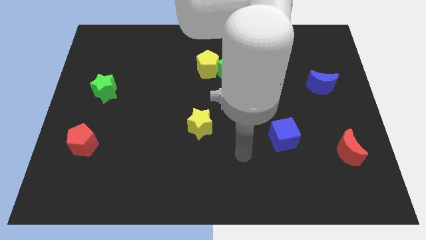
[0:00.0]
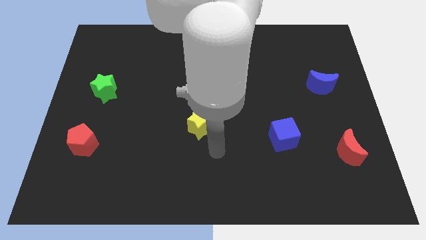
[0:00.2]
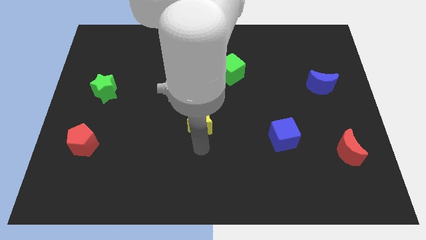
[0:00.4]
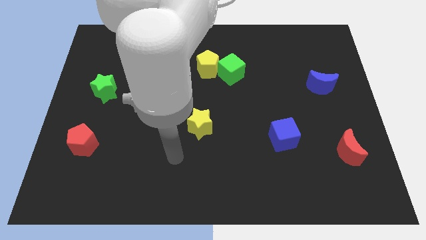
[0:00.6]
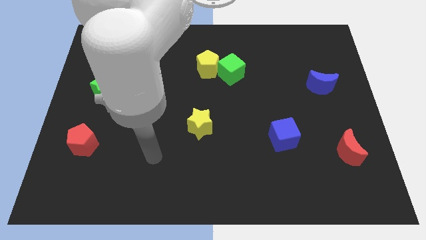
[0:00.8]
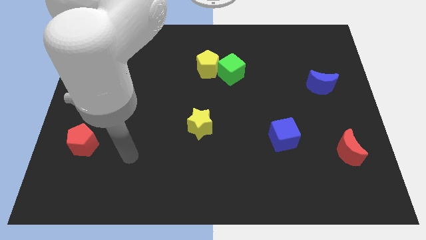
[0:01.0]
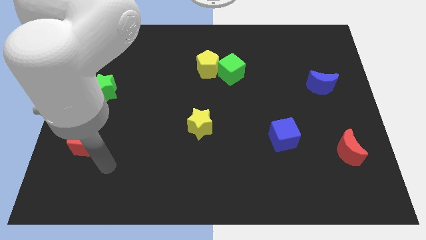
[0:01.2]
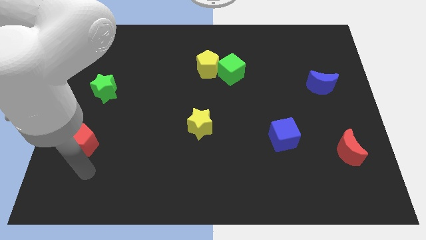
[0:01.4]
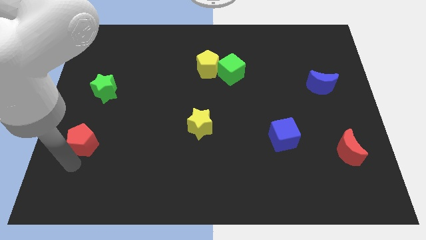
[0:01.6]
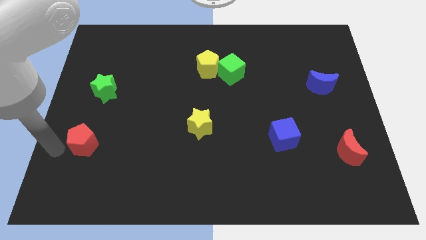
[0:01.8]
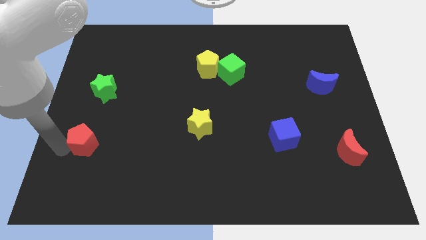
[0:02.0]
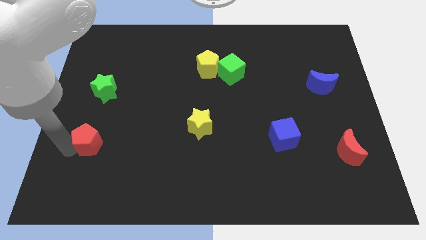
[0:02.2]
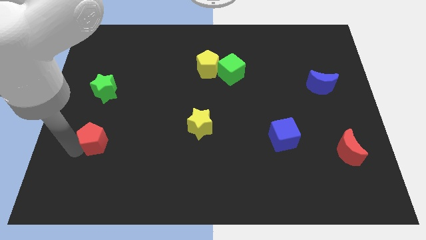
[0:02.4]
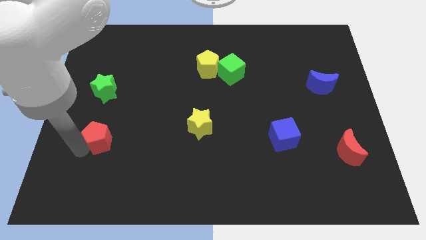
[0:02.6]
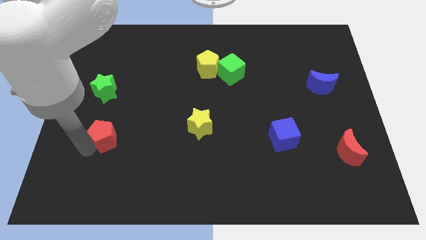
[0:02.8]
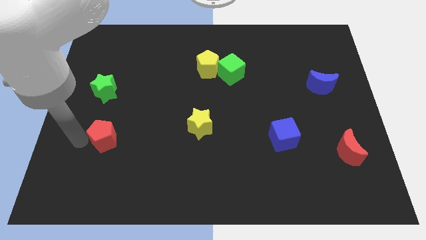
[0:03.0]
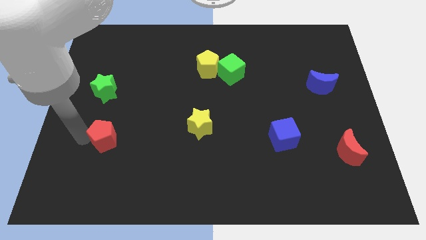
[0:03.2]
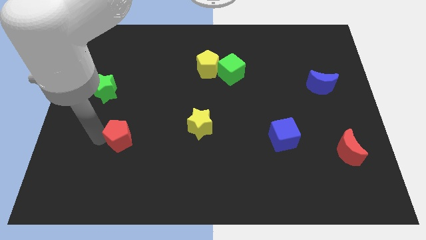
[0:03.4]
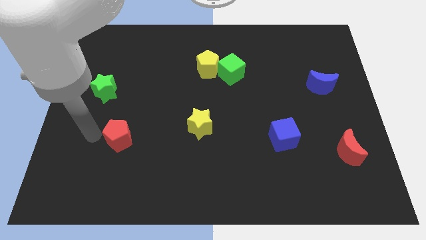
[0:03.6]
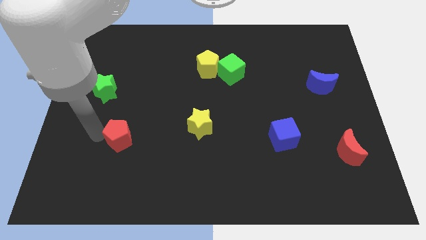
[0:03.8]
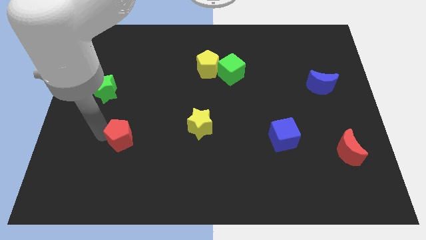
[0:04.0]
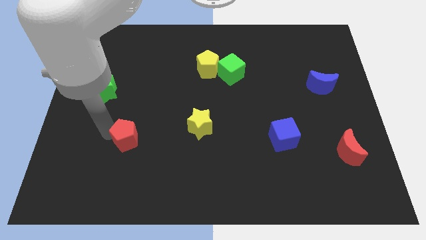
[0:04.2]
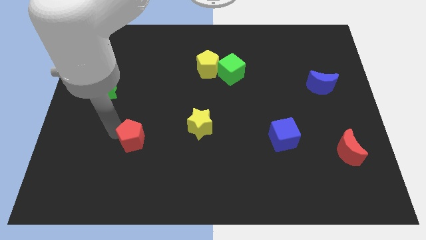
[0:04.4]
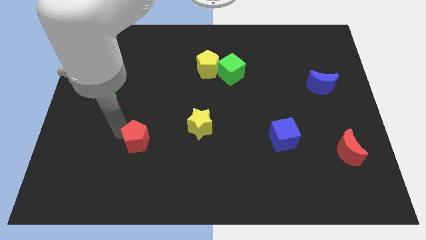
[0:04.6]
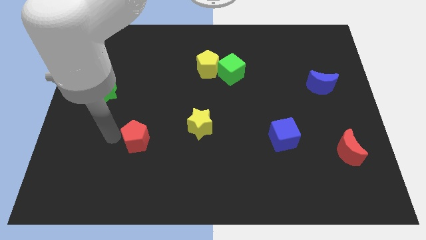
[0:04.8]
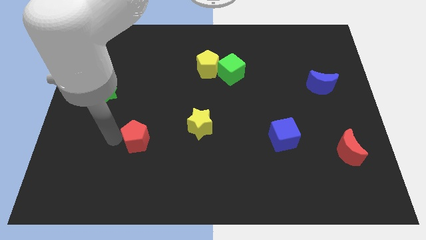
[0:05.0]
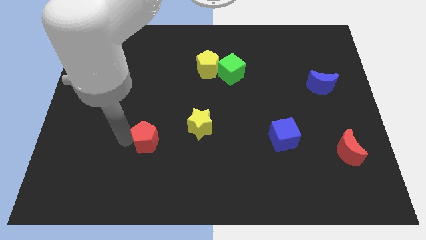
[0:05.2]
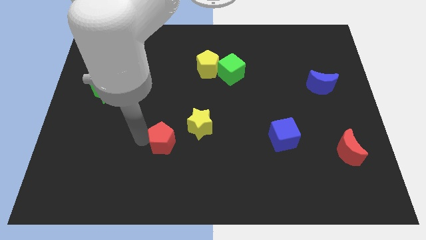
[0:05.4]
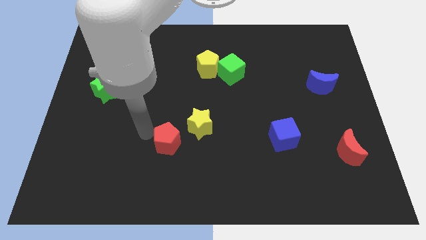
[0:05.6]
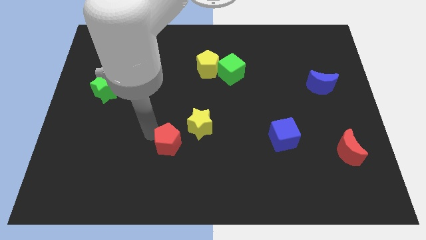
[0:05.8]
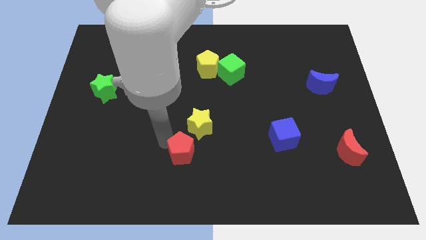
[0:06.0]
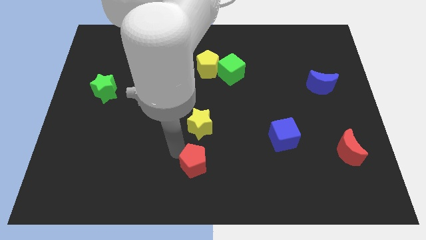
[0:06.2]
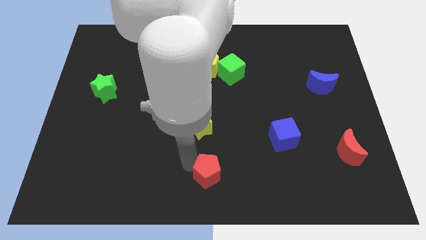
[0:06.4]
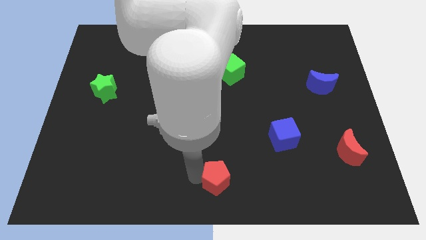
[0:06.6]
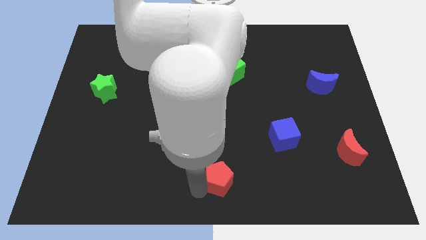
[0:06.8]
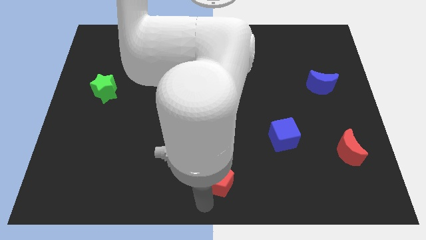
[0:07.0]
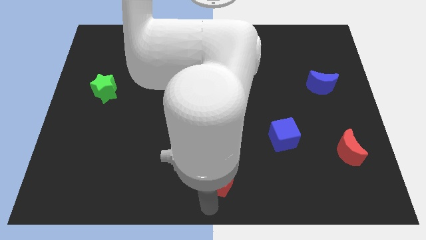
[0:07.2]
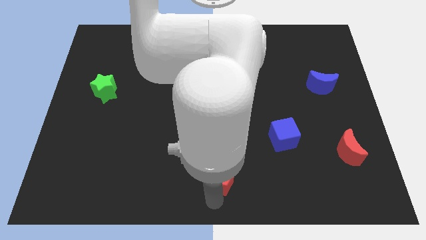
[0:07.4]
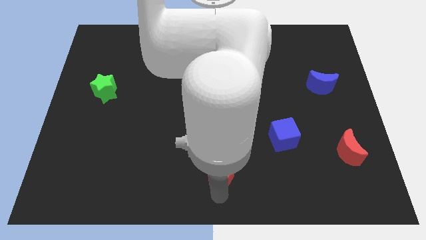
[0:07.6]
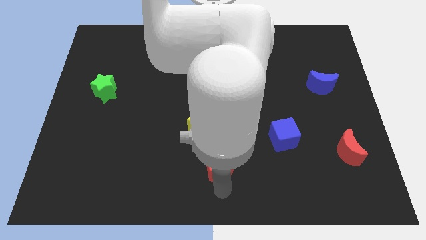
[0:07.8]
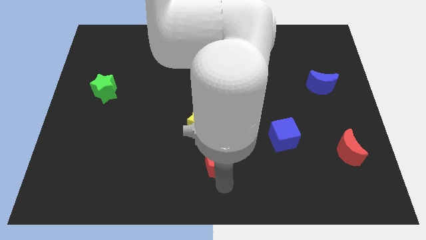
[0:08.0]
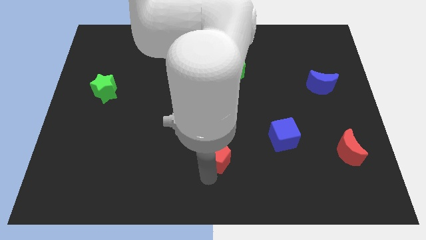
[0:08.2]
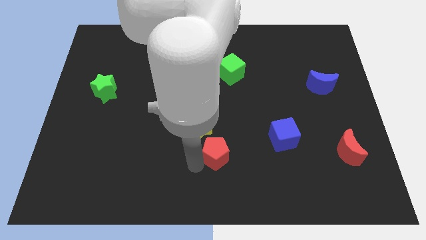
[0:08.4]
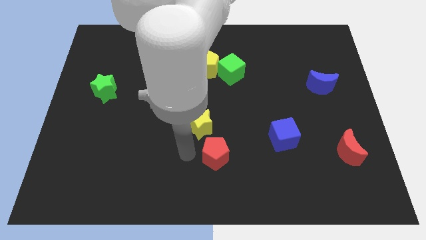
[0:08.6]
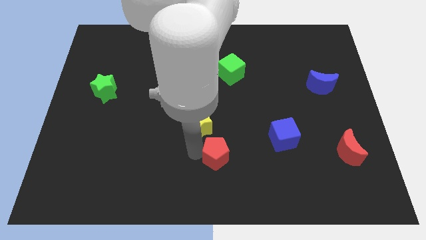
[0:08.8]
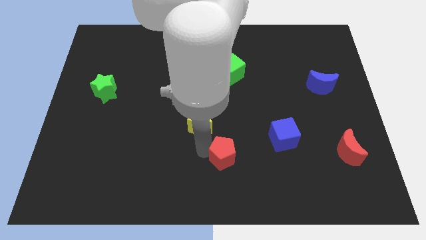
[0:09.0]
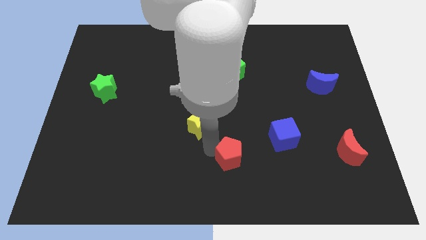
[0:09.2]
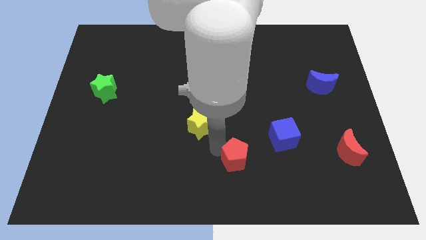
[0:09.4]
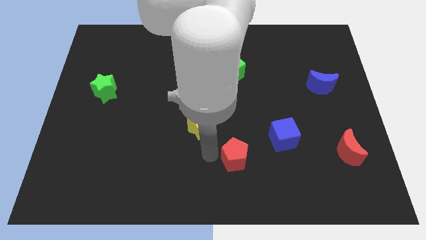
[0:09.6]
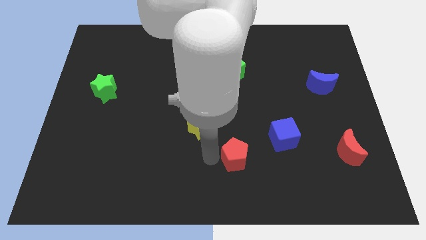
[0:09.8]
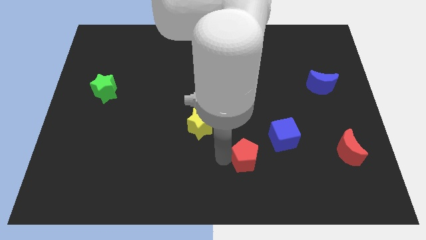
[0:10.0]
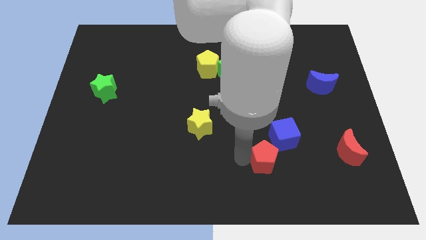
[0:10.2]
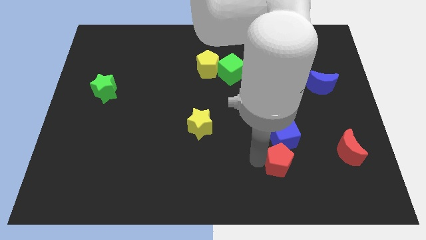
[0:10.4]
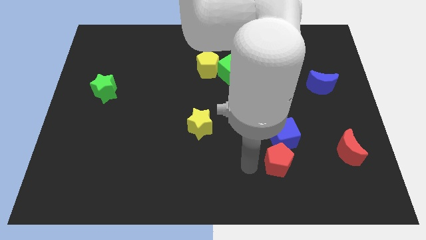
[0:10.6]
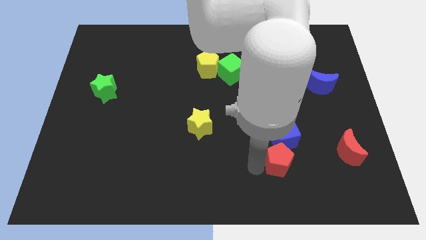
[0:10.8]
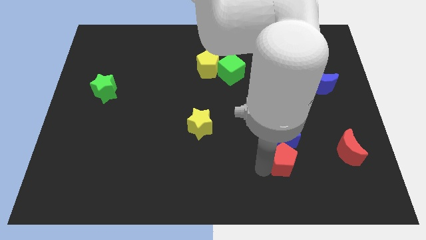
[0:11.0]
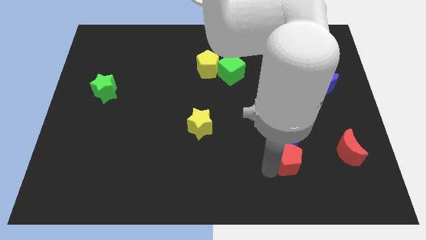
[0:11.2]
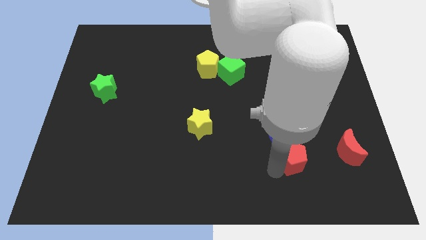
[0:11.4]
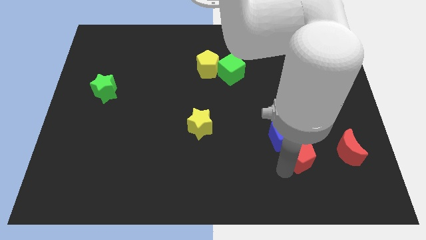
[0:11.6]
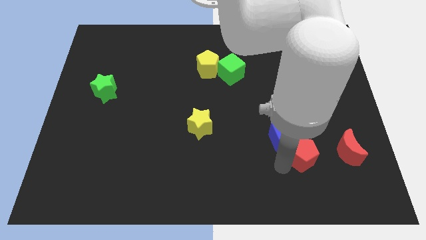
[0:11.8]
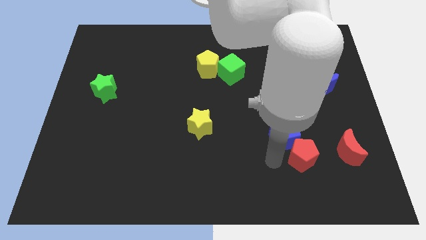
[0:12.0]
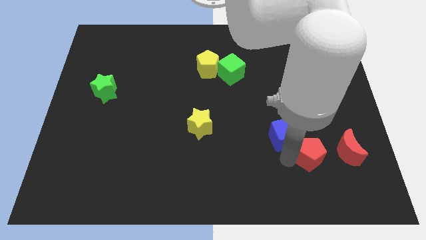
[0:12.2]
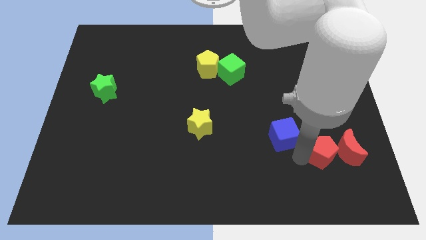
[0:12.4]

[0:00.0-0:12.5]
push the red pentagon close to the red moon
